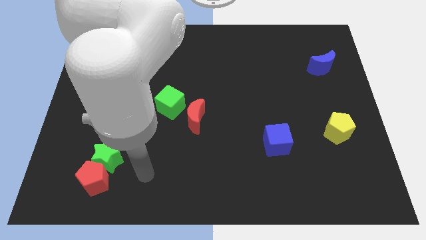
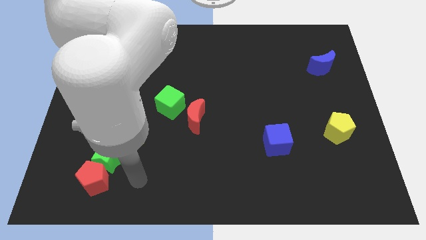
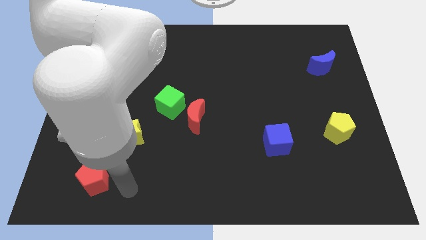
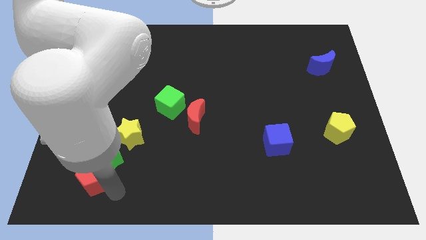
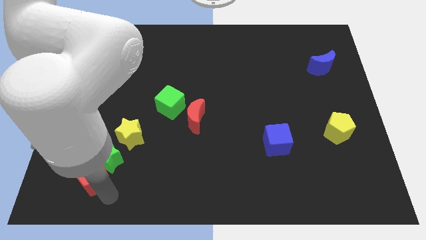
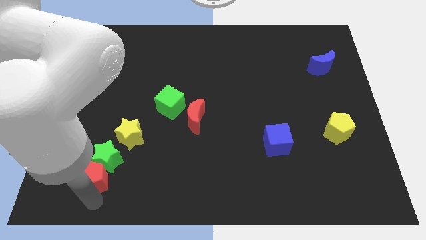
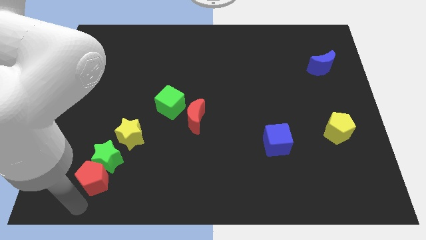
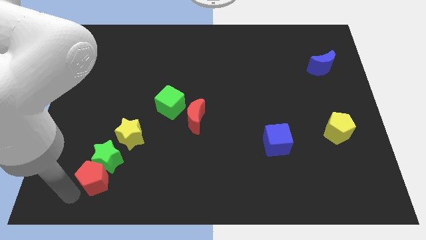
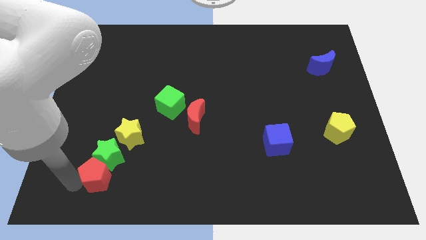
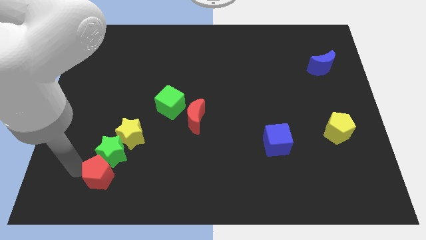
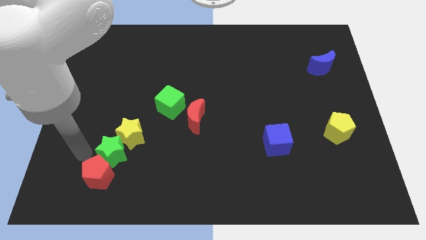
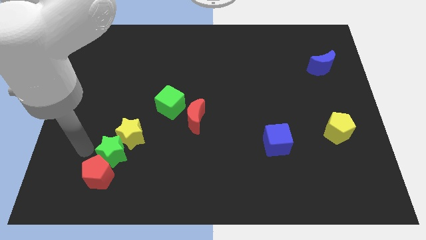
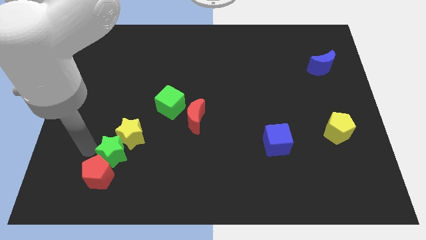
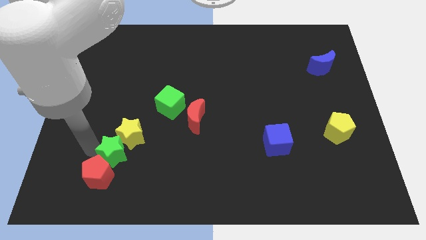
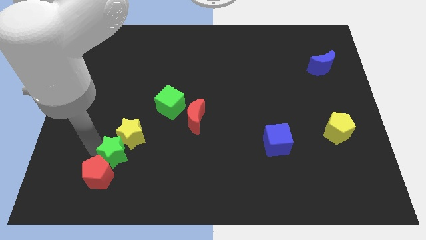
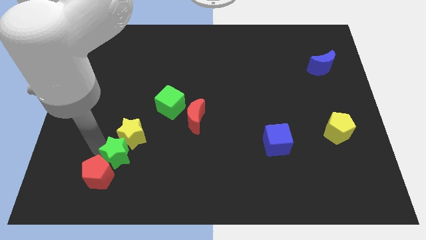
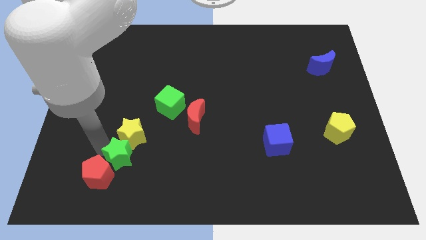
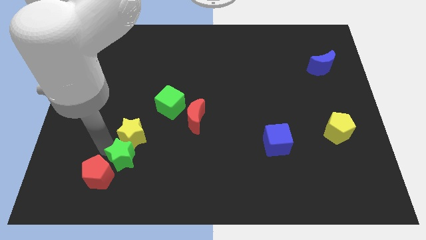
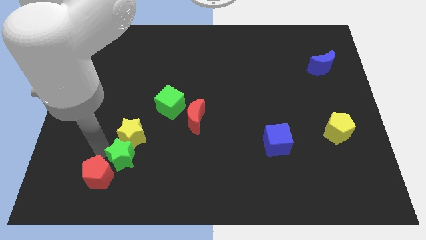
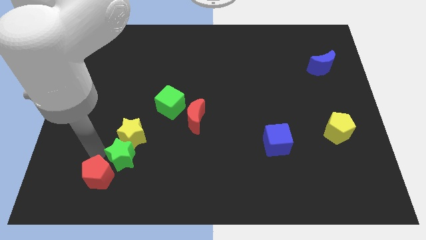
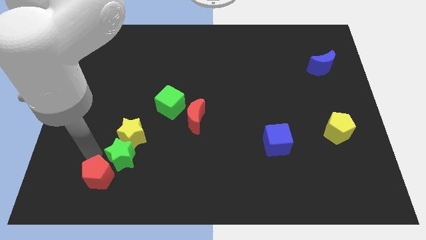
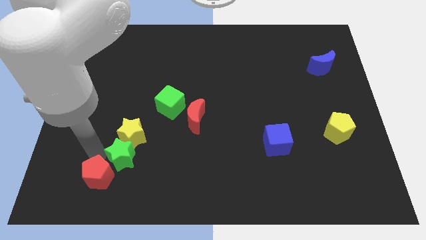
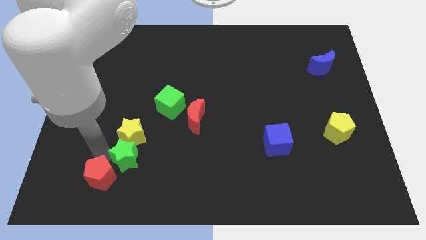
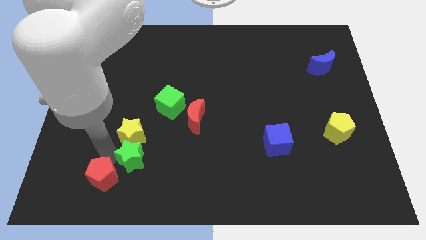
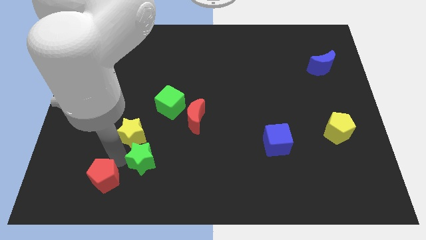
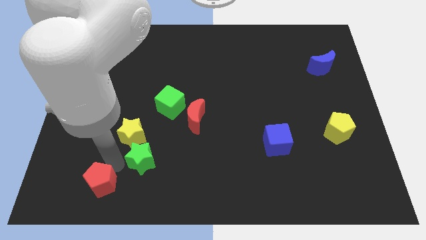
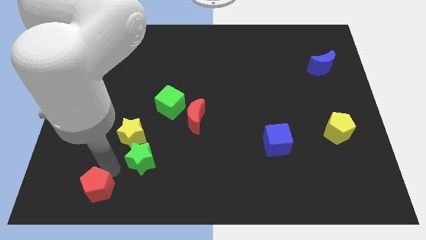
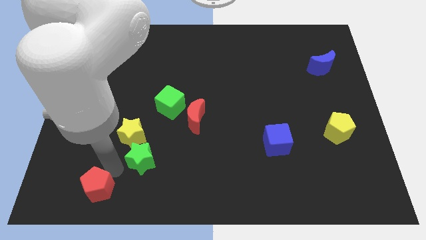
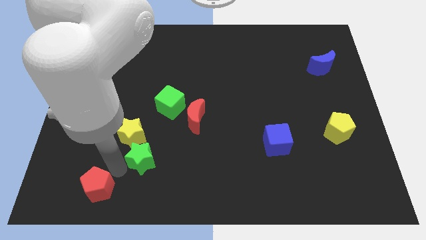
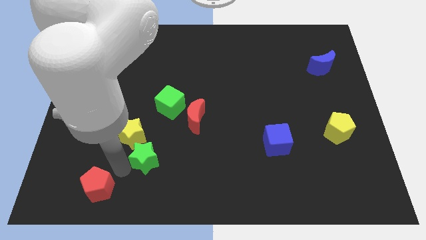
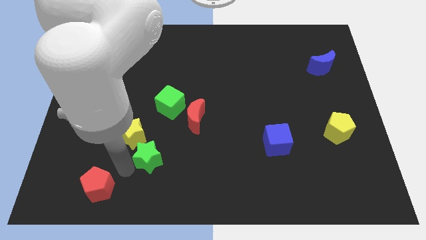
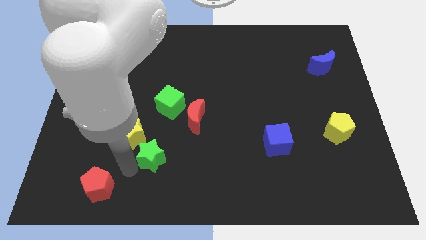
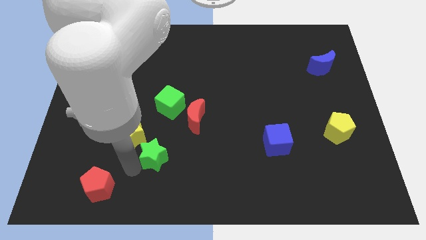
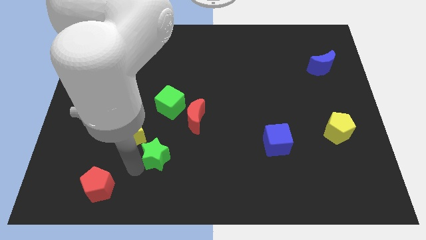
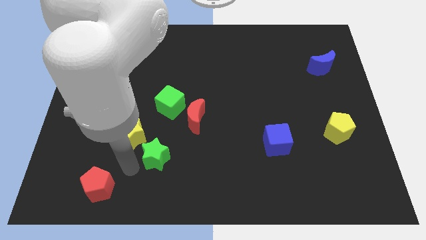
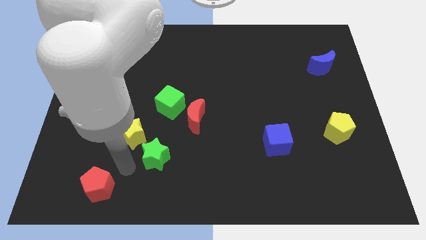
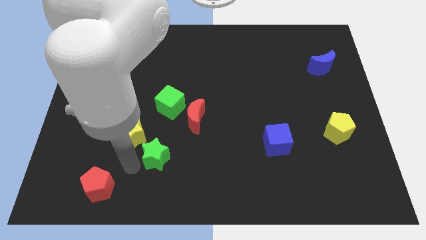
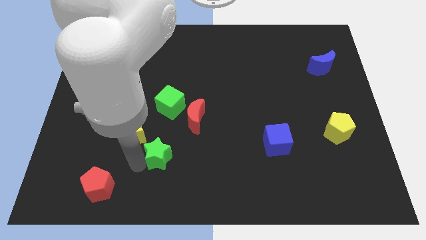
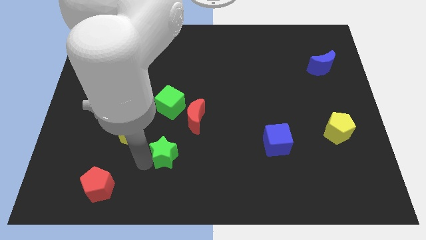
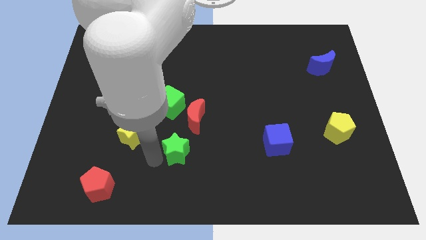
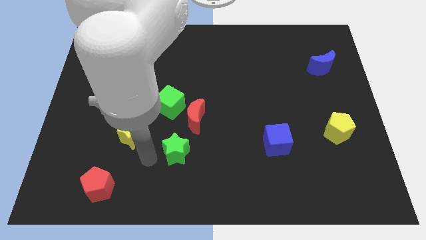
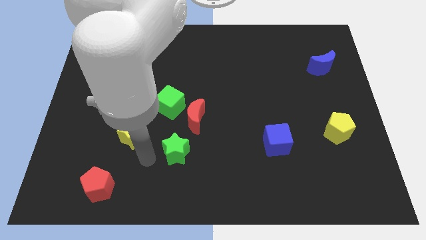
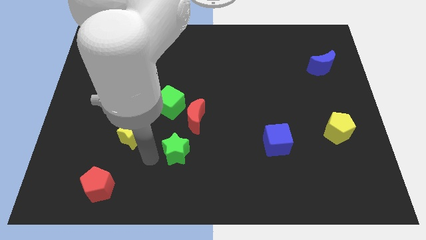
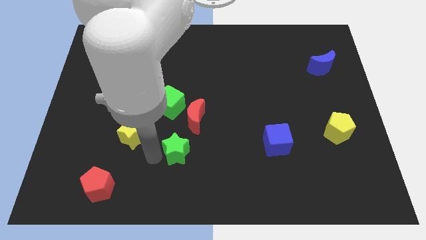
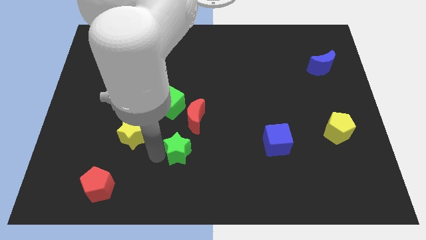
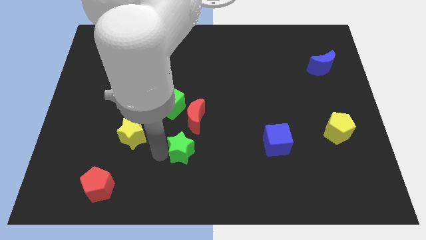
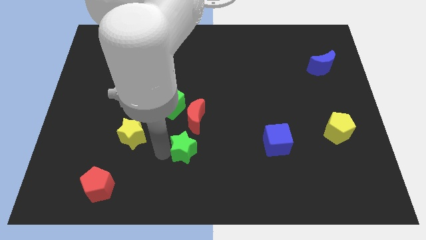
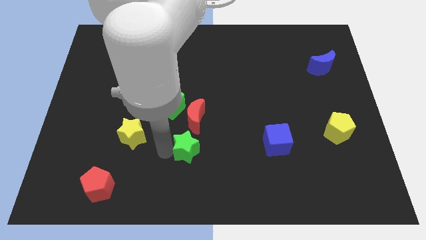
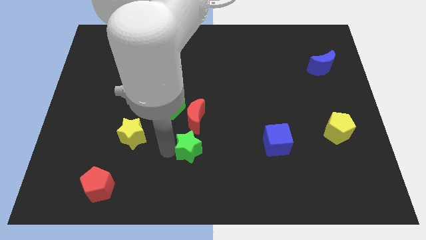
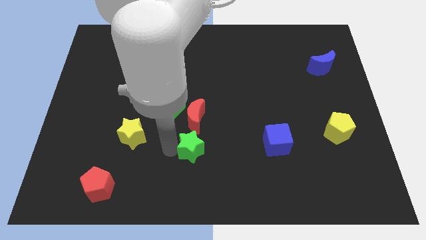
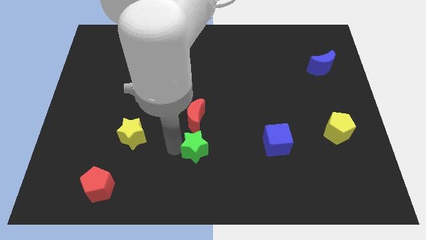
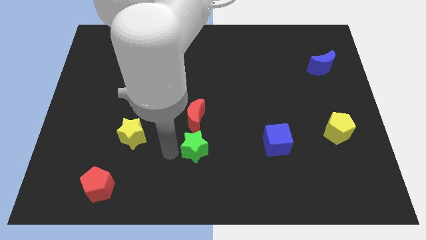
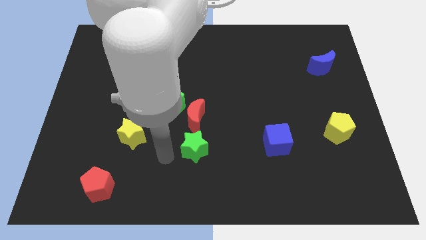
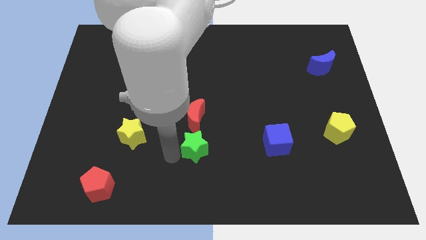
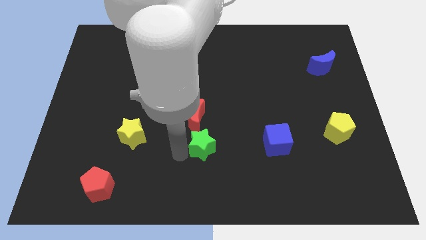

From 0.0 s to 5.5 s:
push the green star left of the blue cube
